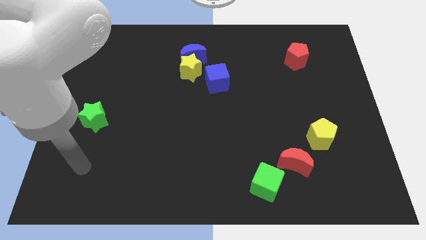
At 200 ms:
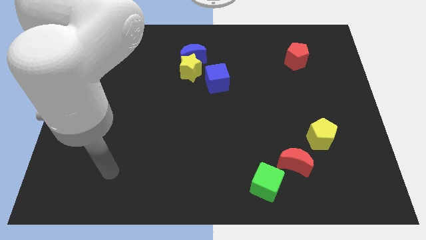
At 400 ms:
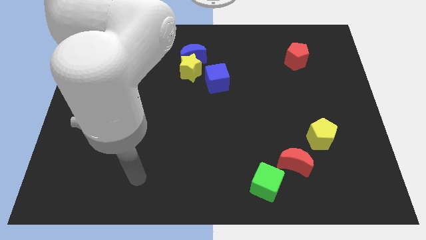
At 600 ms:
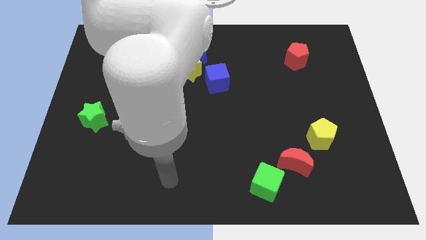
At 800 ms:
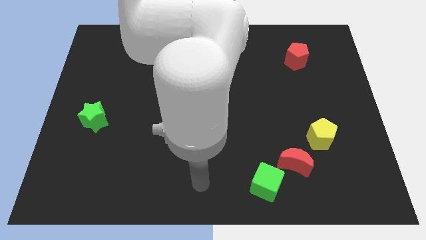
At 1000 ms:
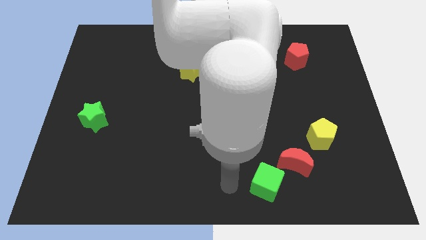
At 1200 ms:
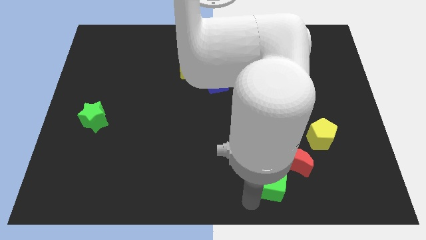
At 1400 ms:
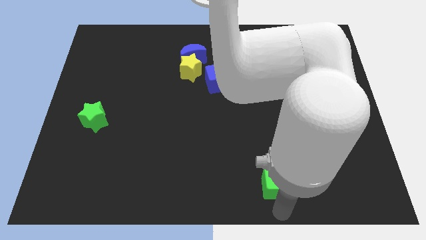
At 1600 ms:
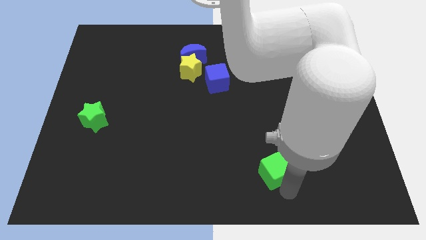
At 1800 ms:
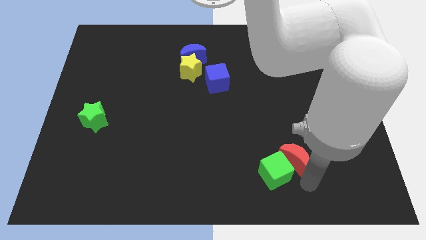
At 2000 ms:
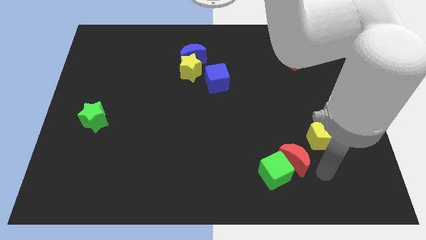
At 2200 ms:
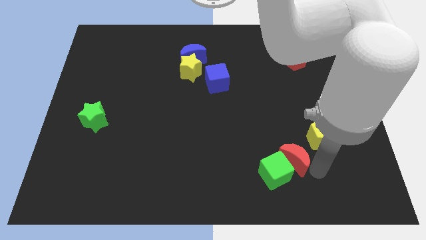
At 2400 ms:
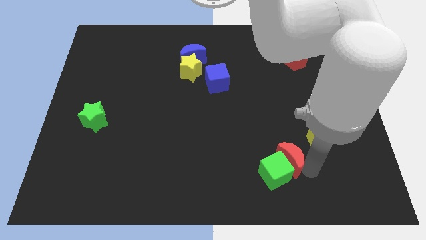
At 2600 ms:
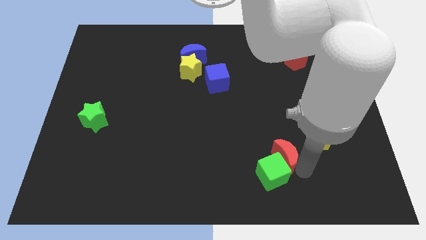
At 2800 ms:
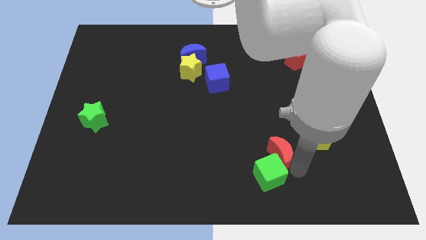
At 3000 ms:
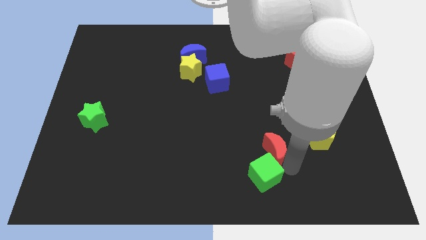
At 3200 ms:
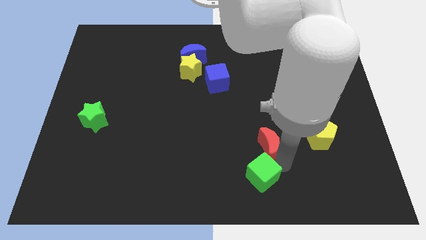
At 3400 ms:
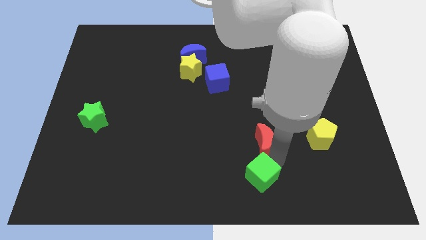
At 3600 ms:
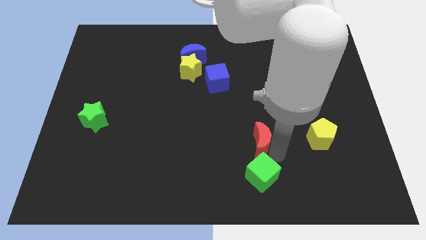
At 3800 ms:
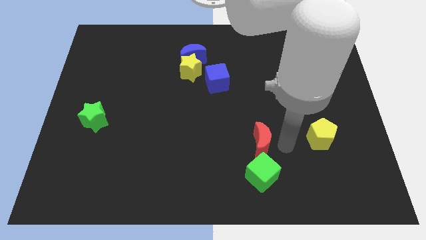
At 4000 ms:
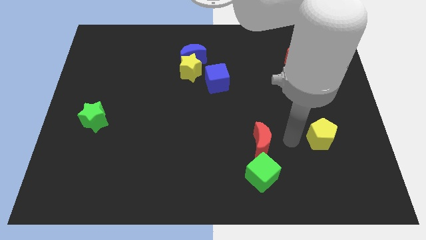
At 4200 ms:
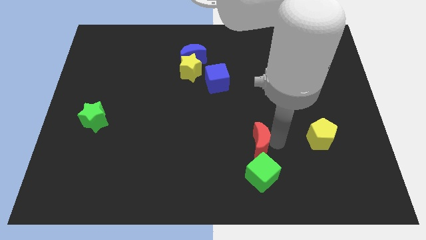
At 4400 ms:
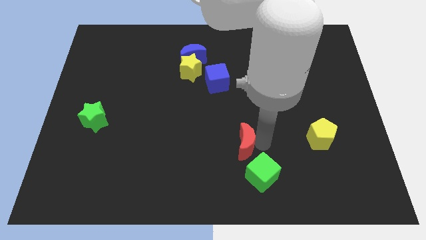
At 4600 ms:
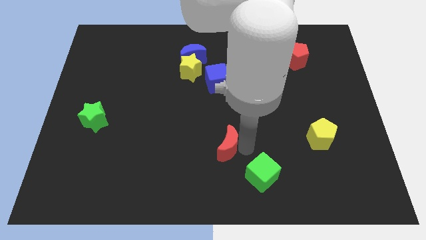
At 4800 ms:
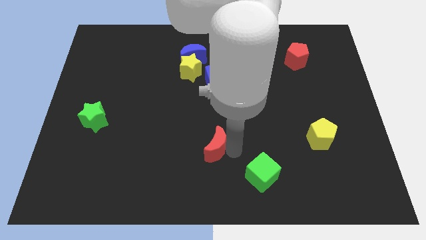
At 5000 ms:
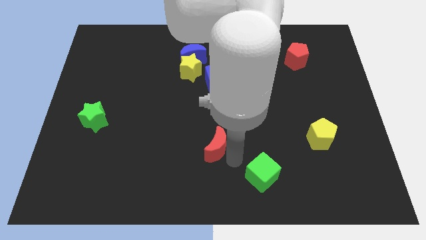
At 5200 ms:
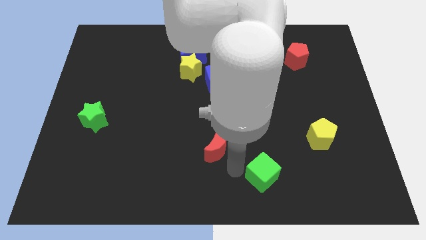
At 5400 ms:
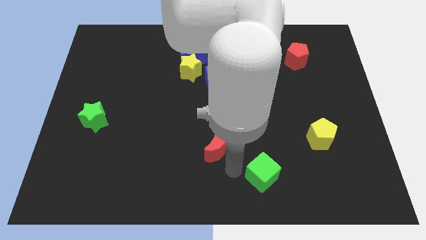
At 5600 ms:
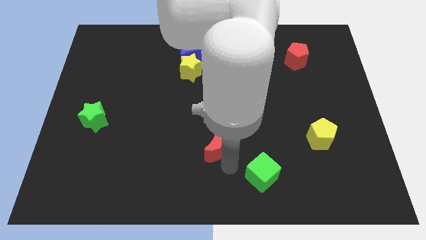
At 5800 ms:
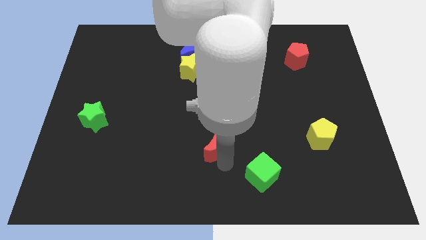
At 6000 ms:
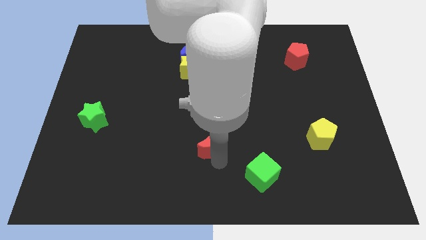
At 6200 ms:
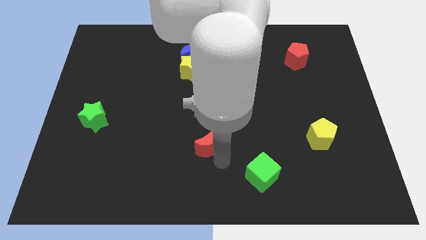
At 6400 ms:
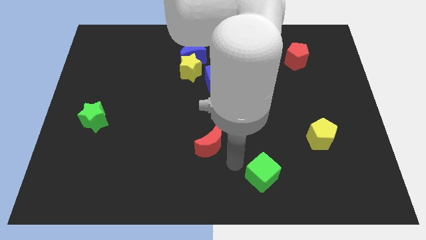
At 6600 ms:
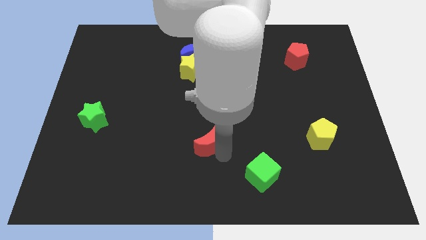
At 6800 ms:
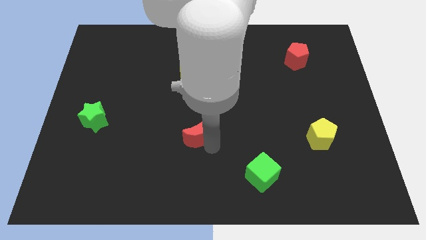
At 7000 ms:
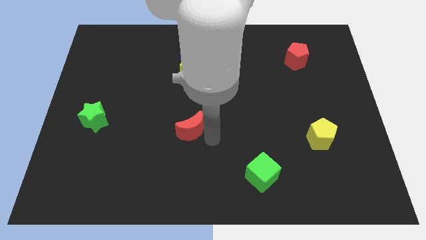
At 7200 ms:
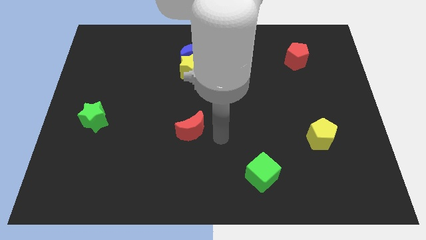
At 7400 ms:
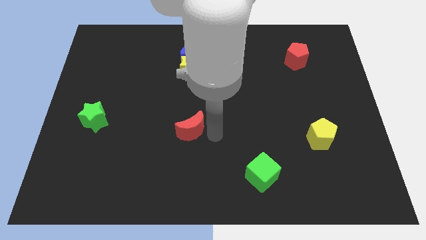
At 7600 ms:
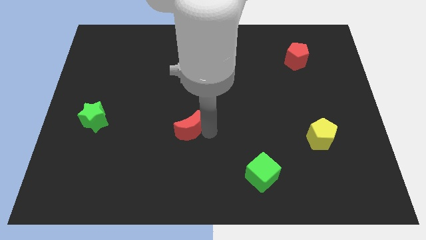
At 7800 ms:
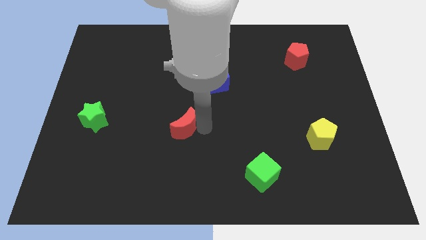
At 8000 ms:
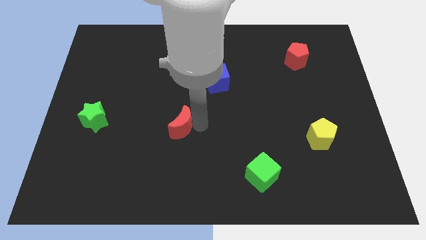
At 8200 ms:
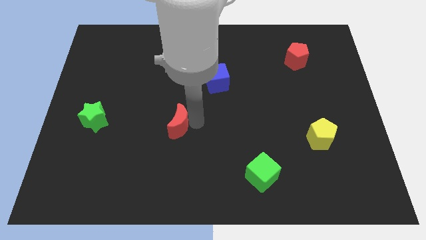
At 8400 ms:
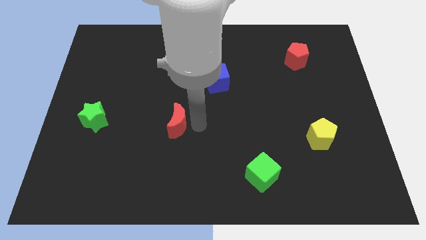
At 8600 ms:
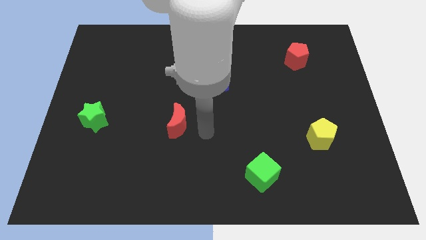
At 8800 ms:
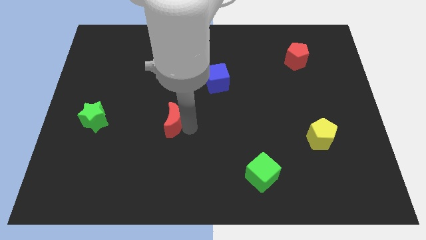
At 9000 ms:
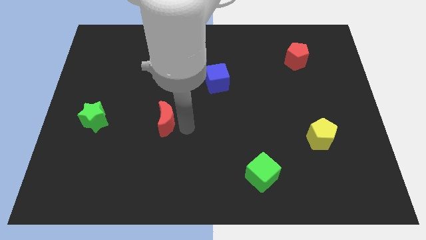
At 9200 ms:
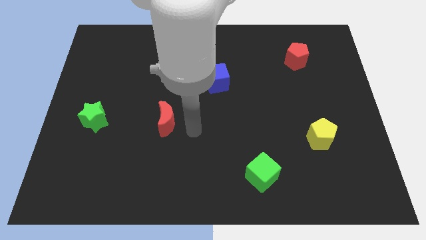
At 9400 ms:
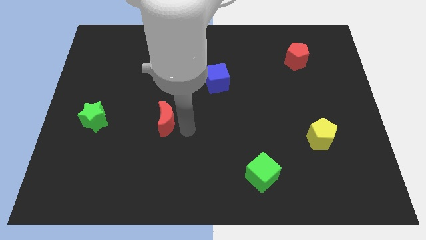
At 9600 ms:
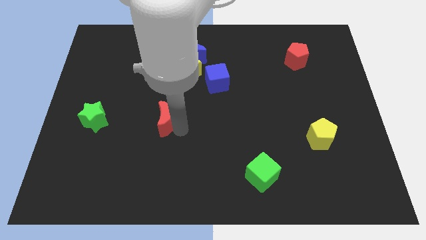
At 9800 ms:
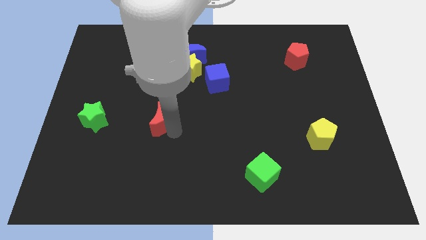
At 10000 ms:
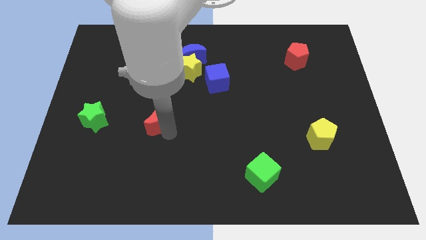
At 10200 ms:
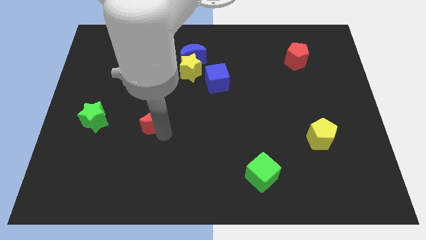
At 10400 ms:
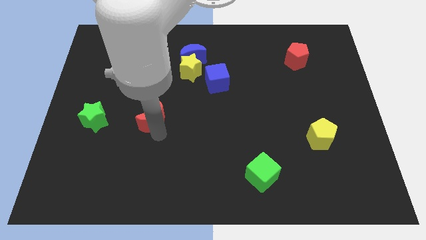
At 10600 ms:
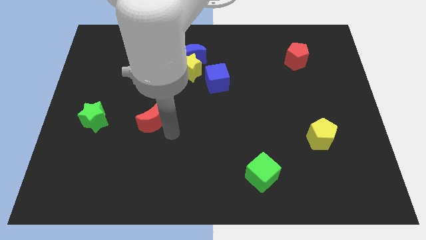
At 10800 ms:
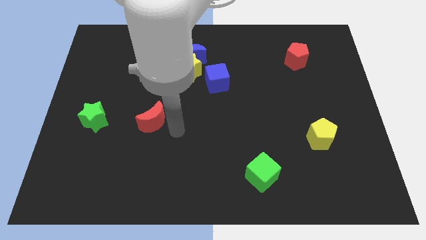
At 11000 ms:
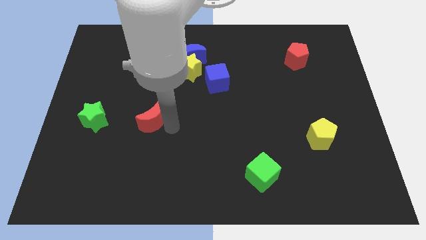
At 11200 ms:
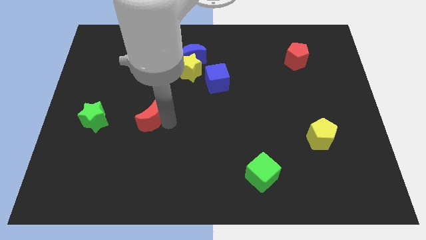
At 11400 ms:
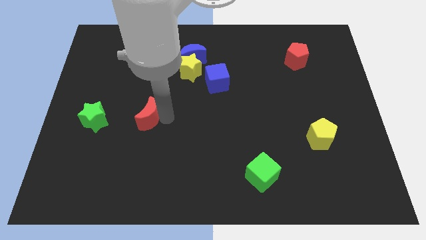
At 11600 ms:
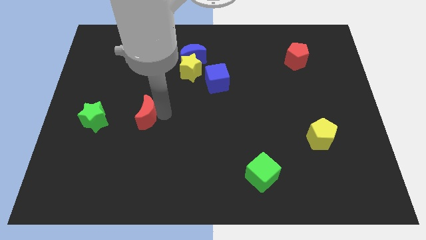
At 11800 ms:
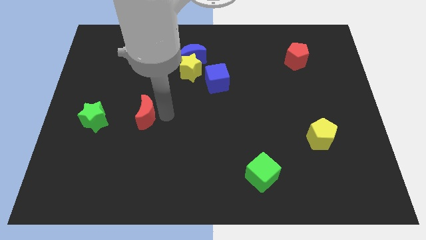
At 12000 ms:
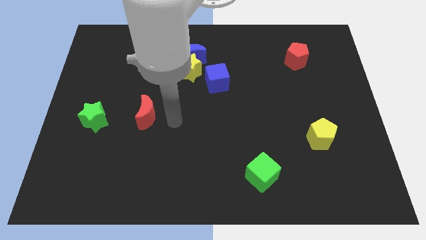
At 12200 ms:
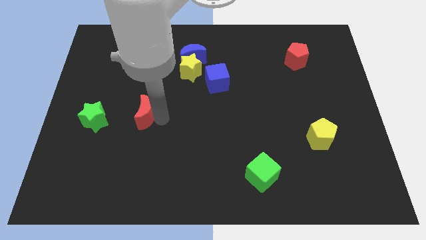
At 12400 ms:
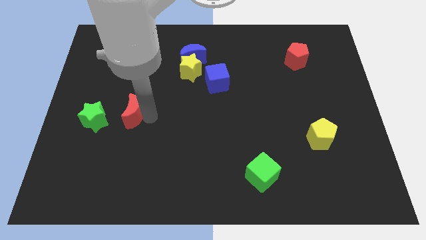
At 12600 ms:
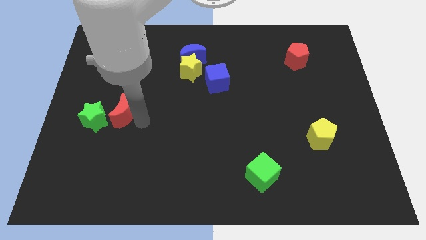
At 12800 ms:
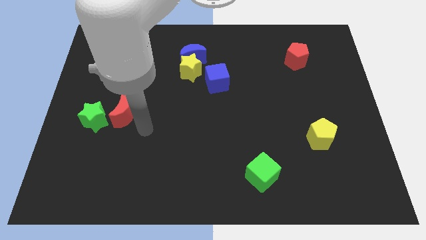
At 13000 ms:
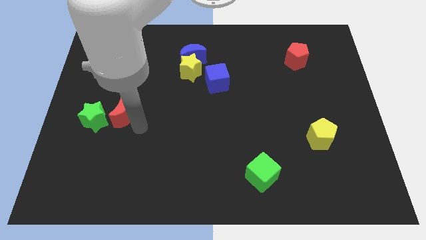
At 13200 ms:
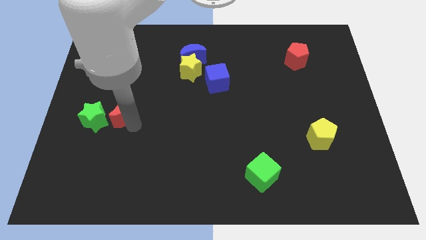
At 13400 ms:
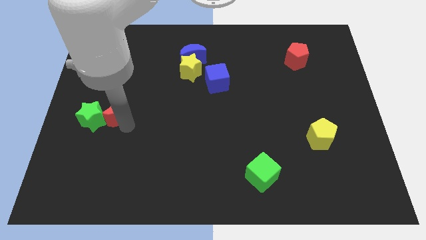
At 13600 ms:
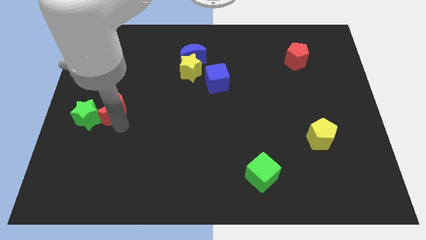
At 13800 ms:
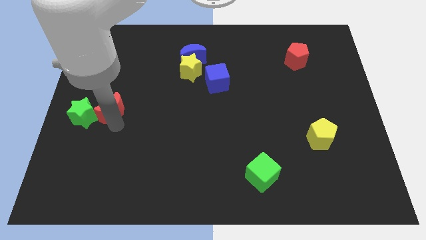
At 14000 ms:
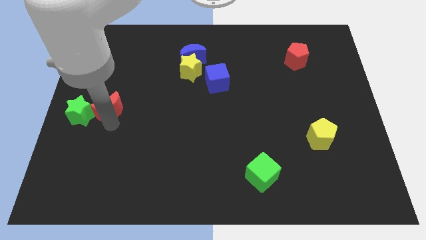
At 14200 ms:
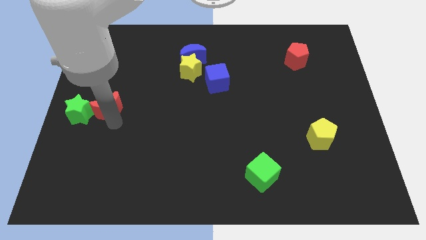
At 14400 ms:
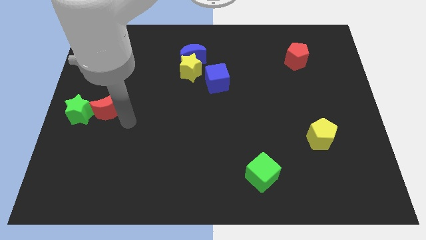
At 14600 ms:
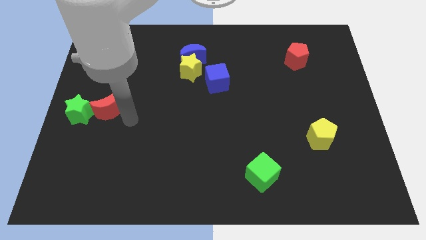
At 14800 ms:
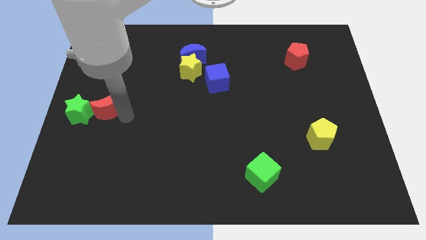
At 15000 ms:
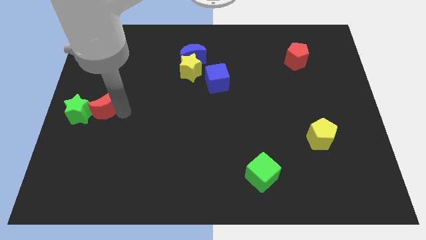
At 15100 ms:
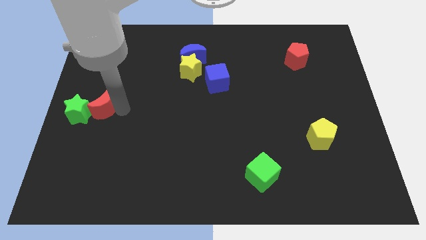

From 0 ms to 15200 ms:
put the red moon to the center left
